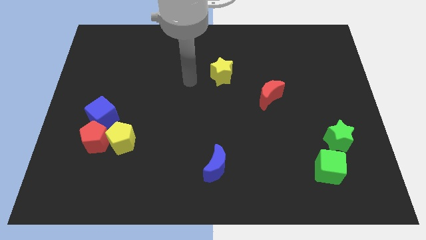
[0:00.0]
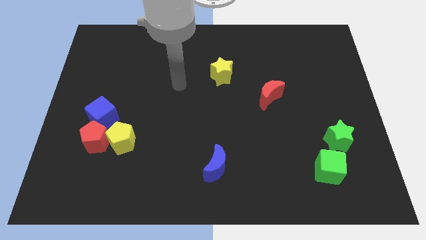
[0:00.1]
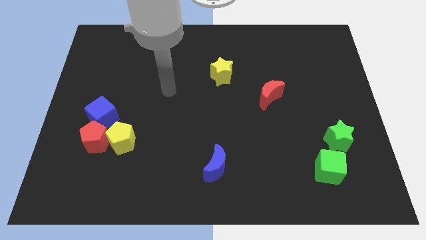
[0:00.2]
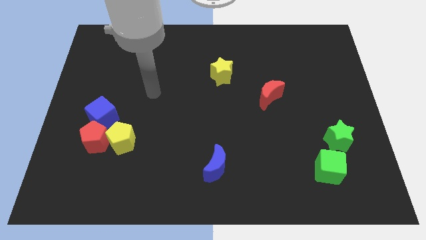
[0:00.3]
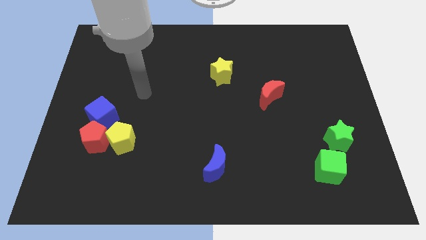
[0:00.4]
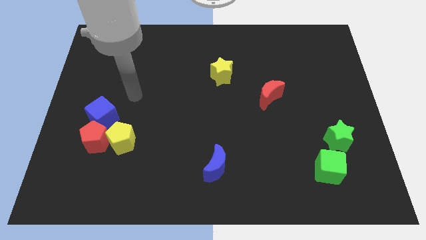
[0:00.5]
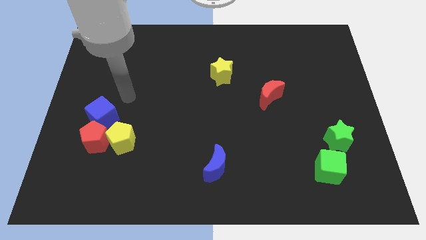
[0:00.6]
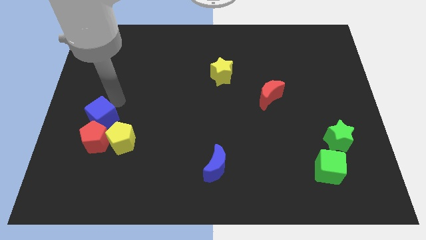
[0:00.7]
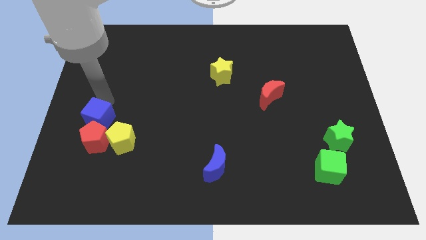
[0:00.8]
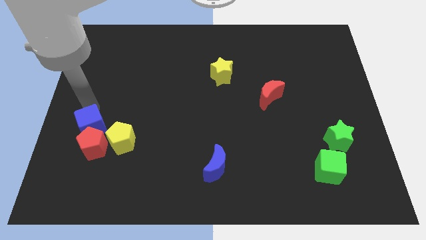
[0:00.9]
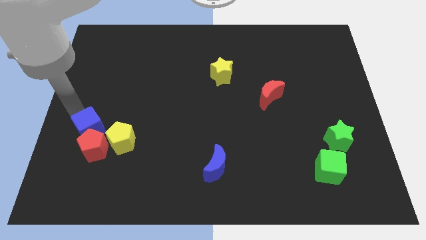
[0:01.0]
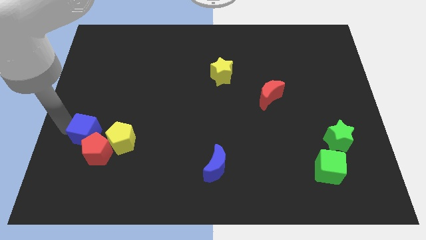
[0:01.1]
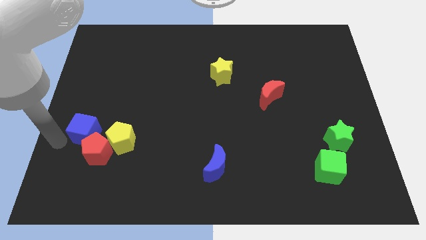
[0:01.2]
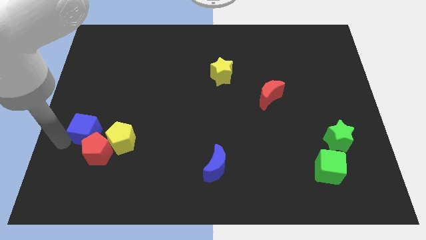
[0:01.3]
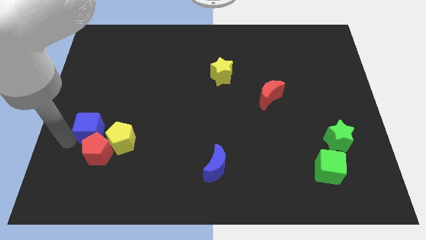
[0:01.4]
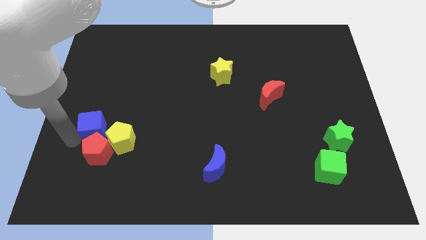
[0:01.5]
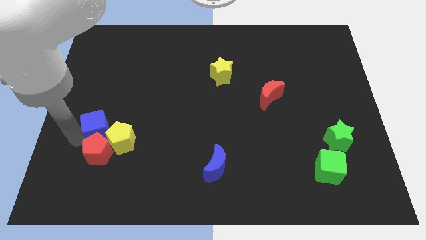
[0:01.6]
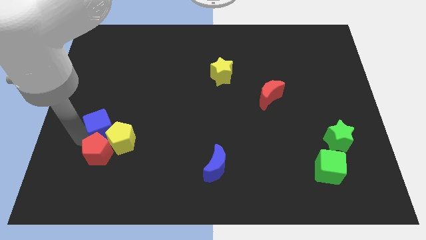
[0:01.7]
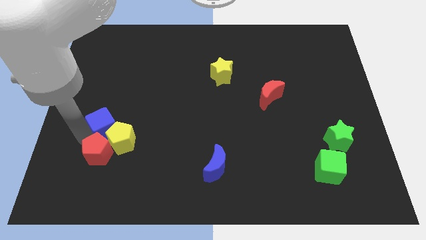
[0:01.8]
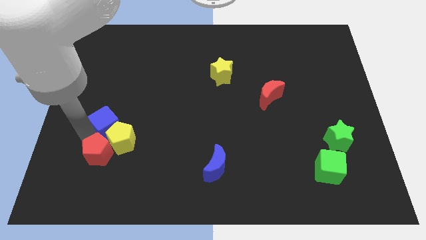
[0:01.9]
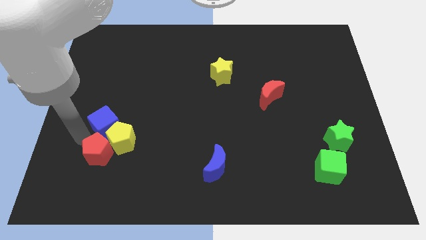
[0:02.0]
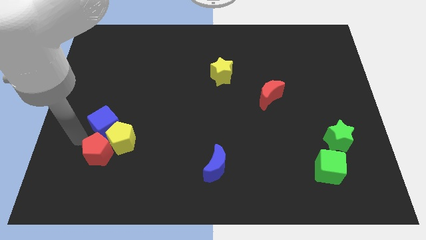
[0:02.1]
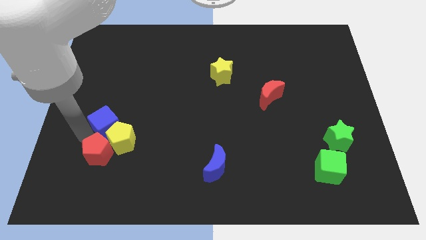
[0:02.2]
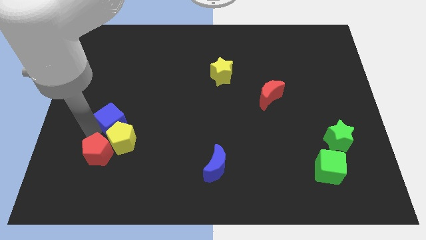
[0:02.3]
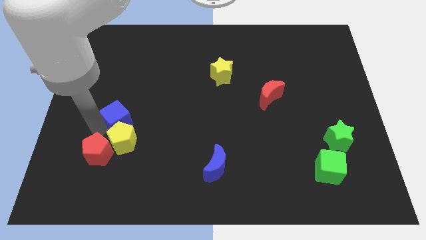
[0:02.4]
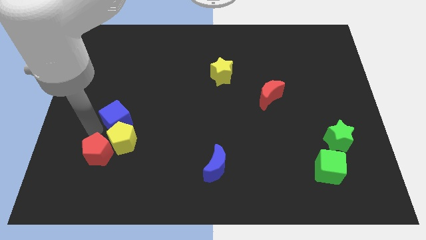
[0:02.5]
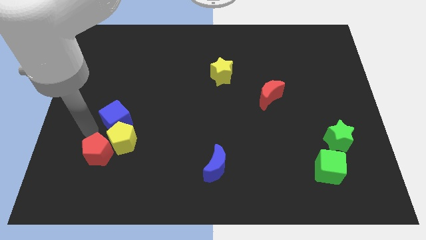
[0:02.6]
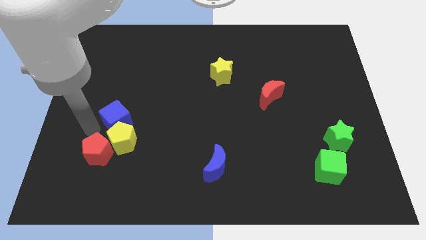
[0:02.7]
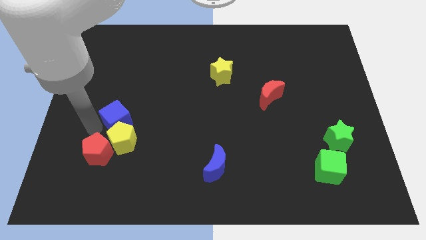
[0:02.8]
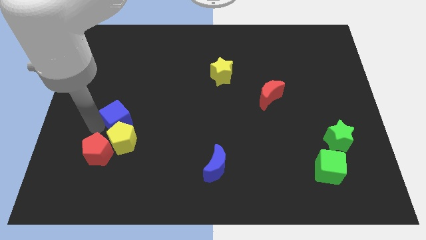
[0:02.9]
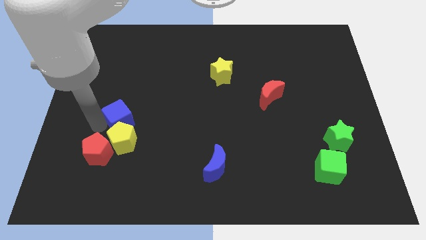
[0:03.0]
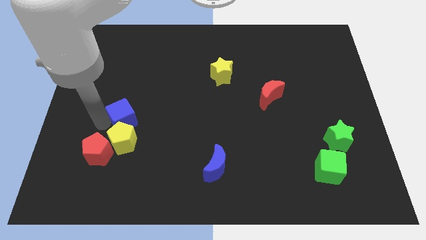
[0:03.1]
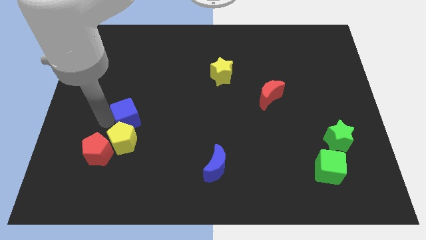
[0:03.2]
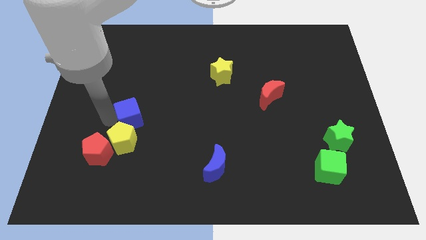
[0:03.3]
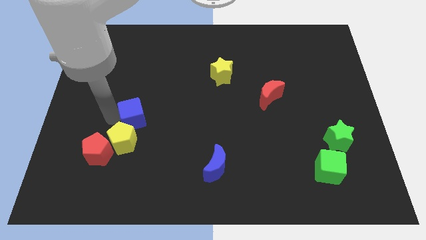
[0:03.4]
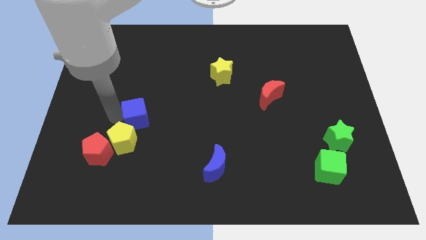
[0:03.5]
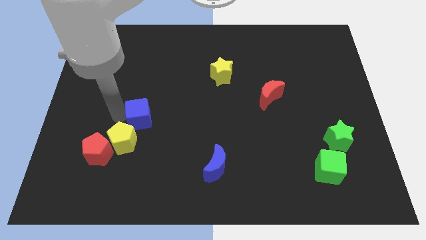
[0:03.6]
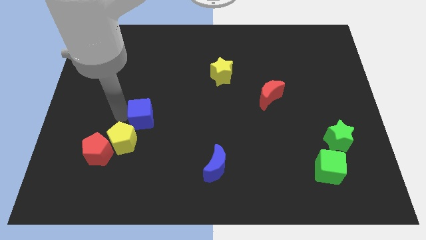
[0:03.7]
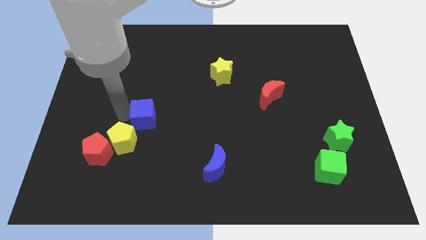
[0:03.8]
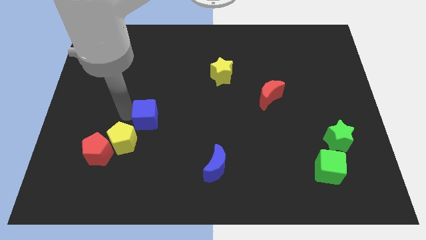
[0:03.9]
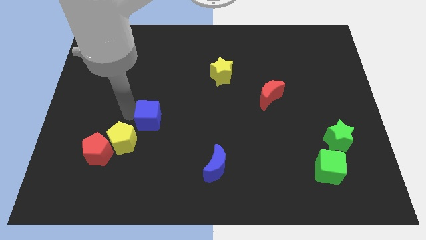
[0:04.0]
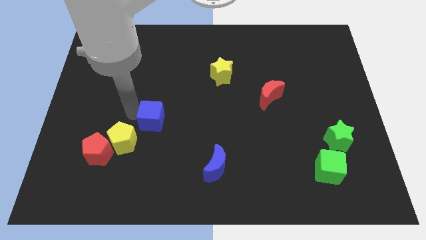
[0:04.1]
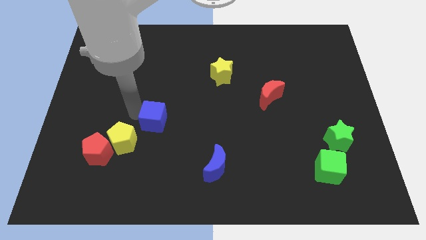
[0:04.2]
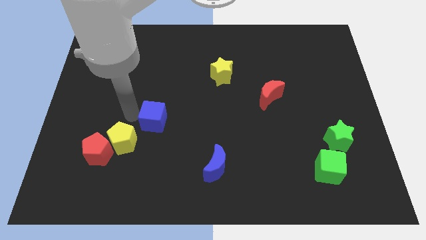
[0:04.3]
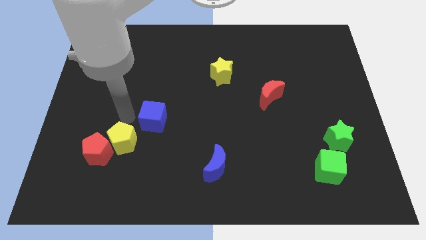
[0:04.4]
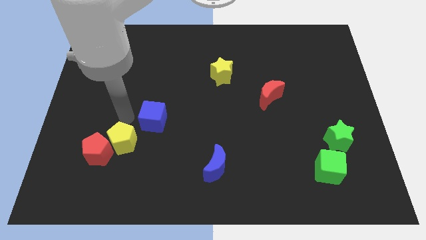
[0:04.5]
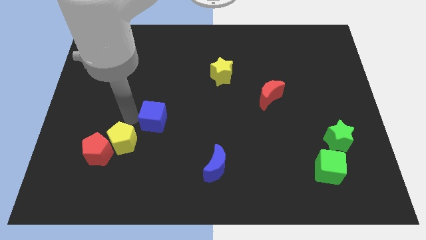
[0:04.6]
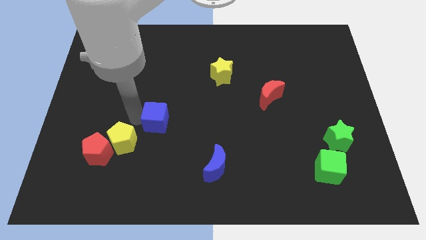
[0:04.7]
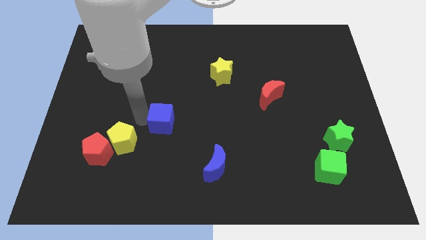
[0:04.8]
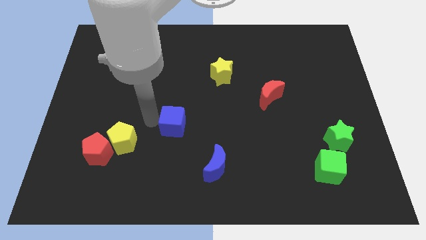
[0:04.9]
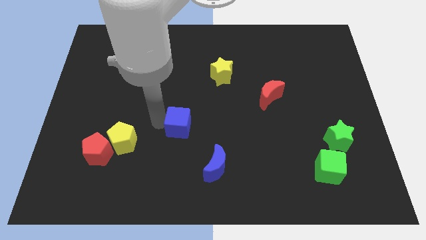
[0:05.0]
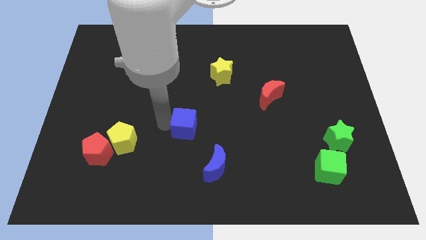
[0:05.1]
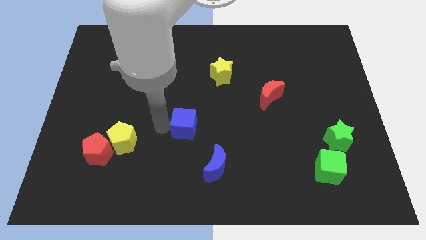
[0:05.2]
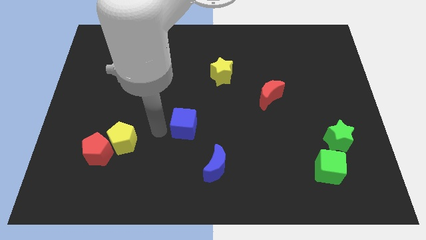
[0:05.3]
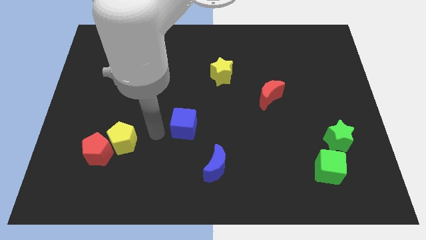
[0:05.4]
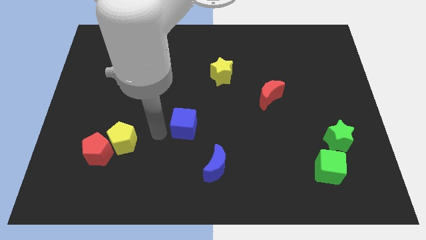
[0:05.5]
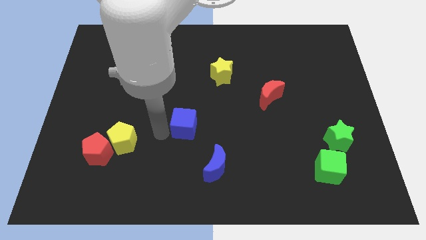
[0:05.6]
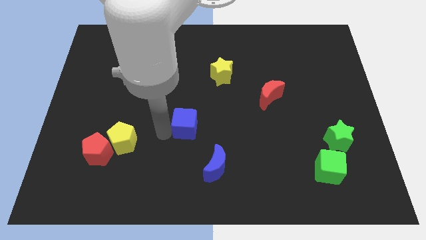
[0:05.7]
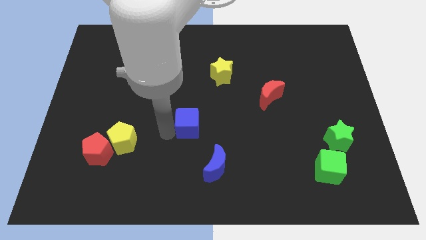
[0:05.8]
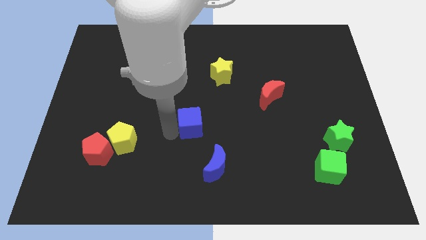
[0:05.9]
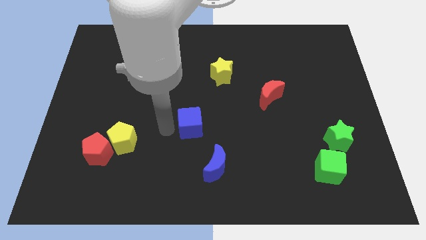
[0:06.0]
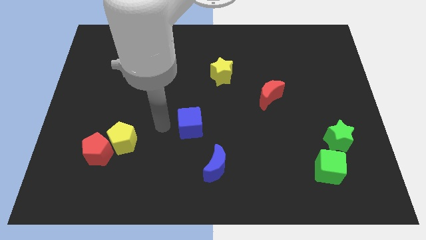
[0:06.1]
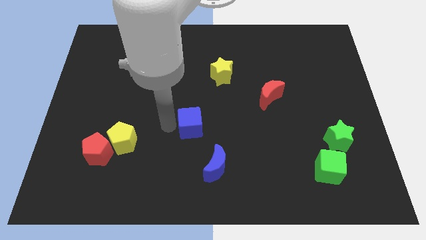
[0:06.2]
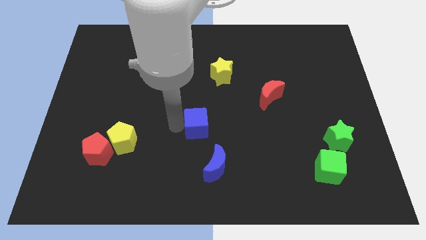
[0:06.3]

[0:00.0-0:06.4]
put the blue cube to the top side of the blue moon

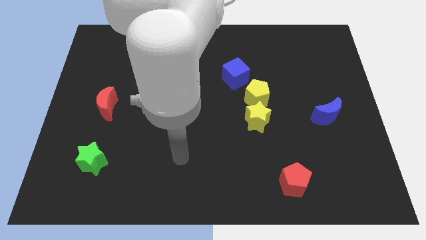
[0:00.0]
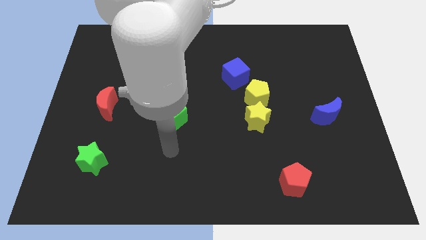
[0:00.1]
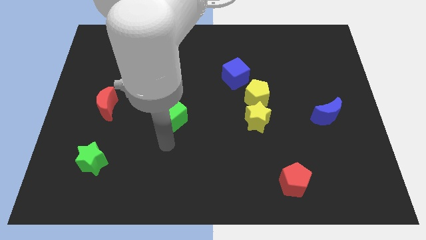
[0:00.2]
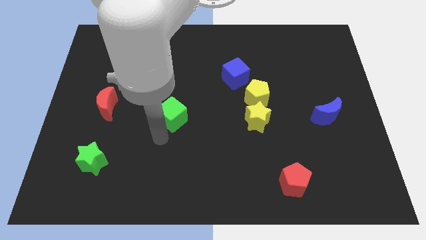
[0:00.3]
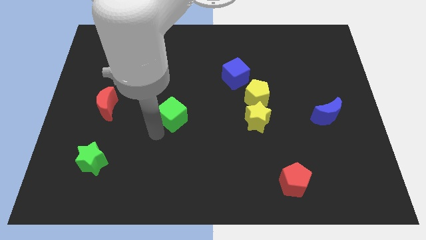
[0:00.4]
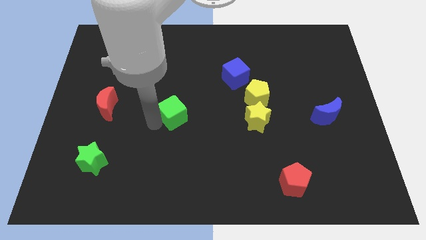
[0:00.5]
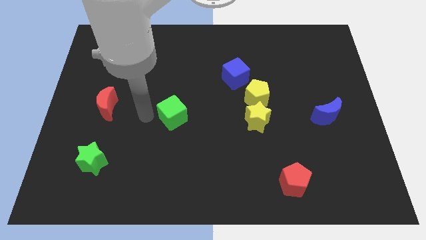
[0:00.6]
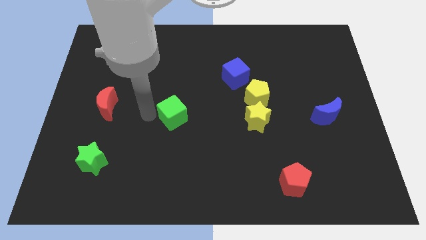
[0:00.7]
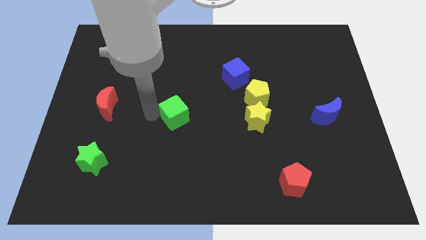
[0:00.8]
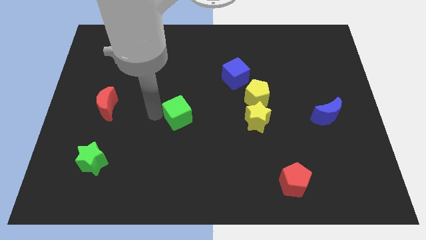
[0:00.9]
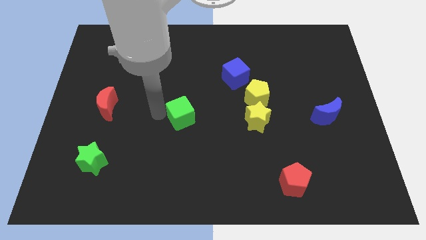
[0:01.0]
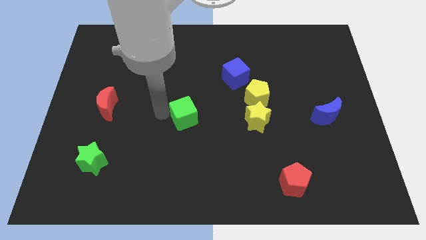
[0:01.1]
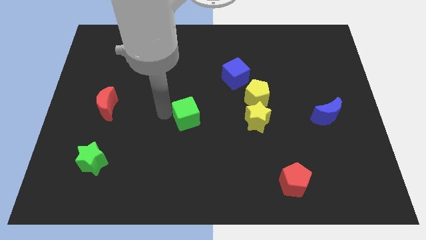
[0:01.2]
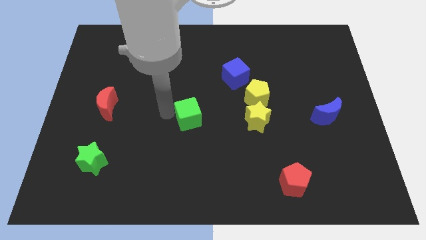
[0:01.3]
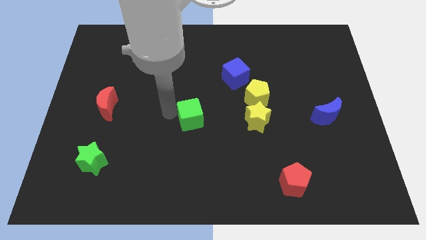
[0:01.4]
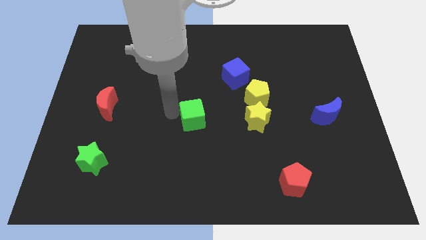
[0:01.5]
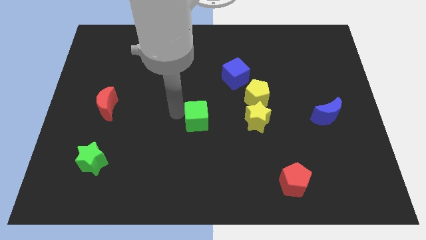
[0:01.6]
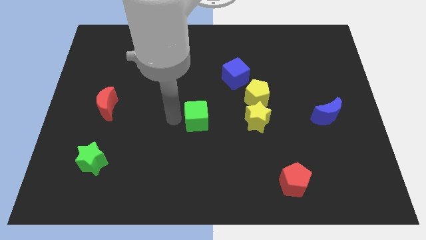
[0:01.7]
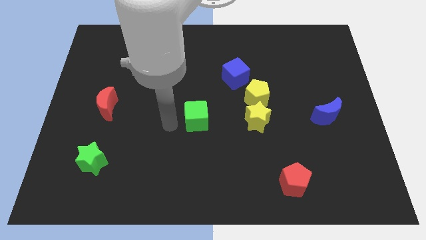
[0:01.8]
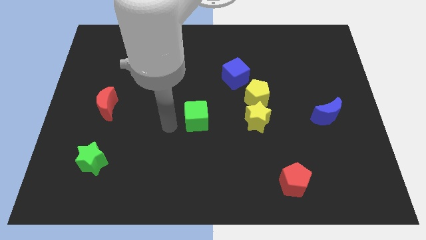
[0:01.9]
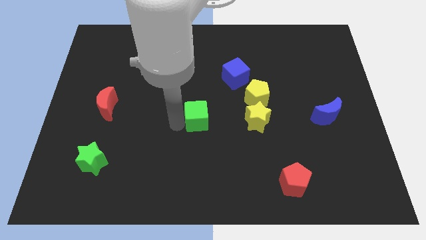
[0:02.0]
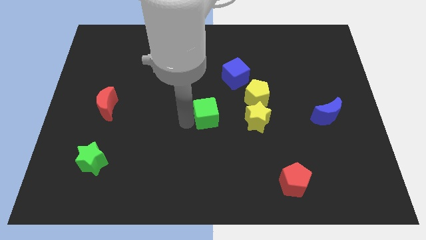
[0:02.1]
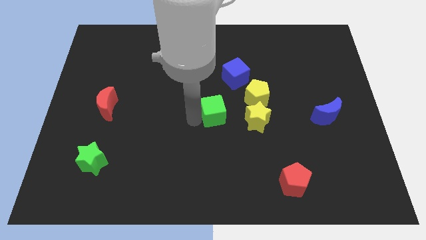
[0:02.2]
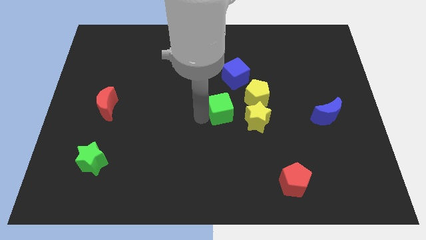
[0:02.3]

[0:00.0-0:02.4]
slide the green cube below the blue cube
